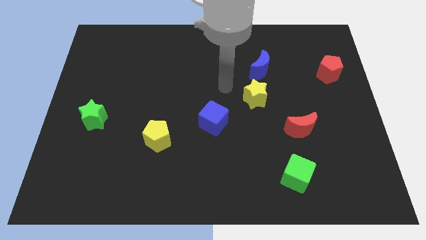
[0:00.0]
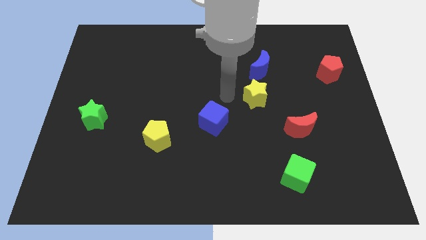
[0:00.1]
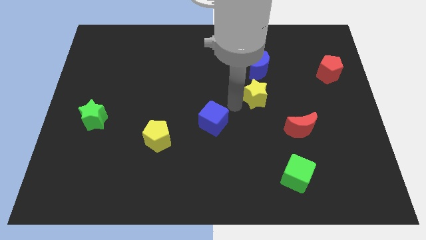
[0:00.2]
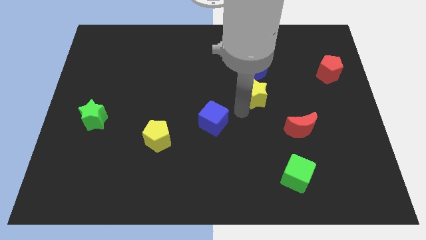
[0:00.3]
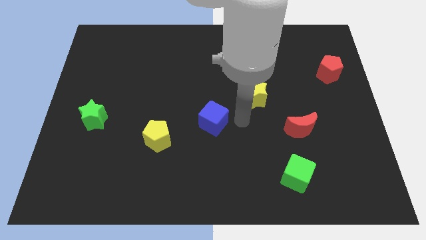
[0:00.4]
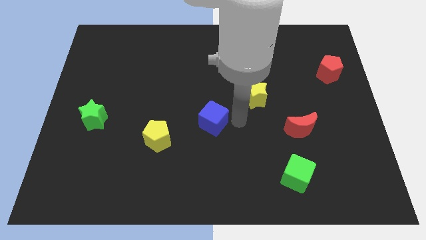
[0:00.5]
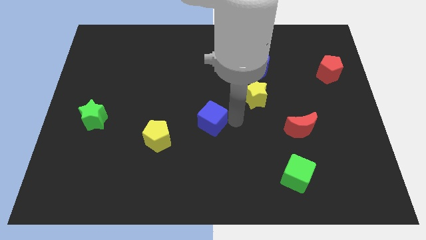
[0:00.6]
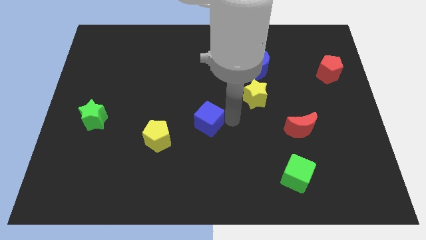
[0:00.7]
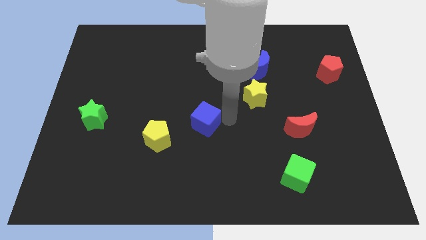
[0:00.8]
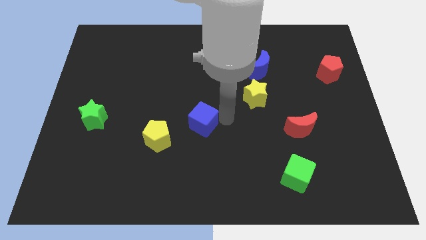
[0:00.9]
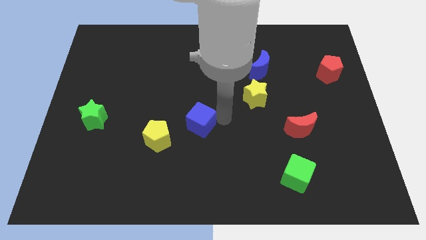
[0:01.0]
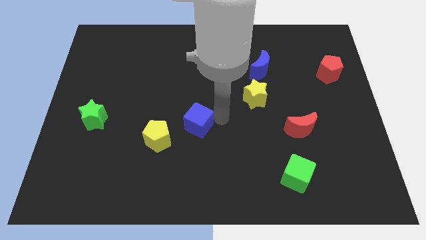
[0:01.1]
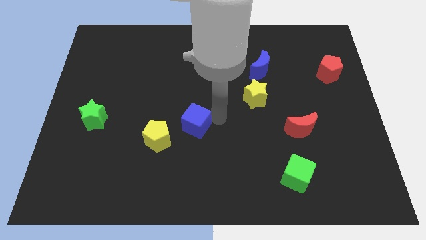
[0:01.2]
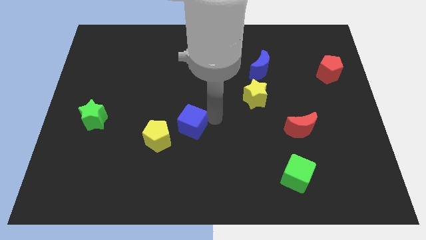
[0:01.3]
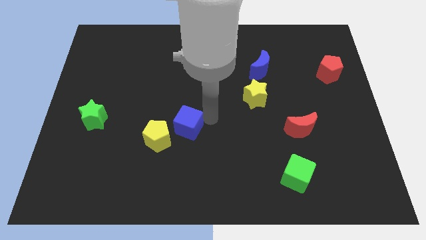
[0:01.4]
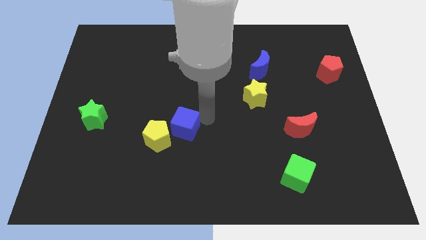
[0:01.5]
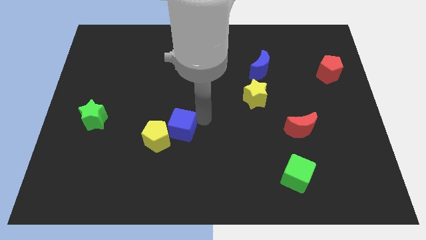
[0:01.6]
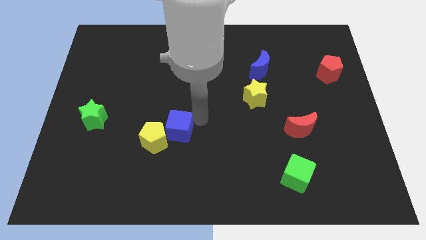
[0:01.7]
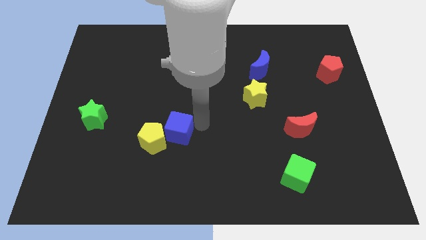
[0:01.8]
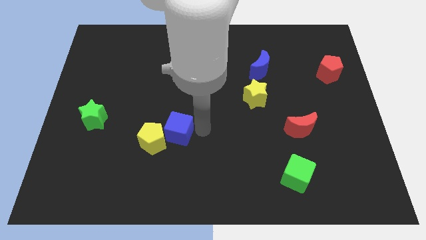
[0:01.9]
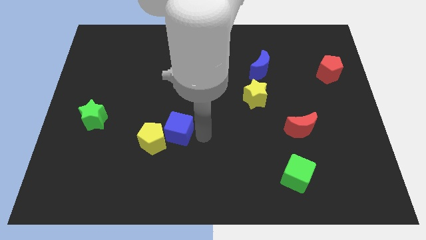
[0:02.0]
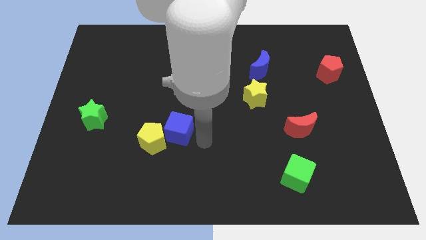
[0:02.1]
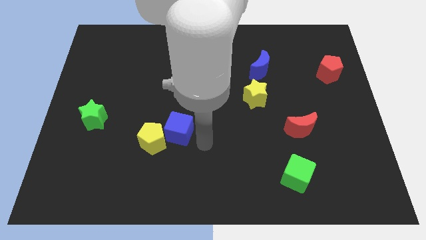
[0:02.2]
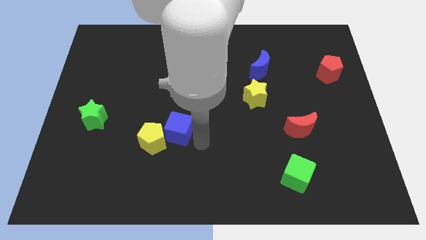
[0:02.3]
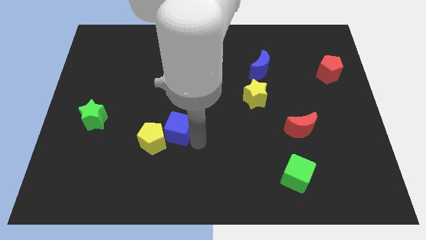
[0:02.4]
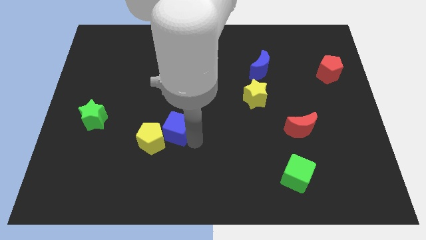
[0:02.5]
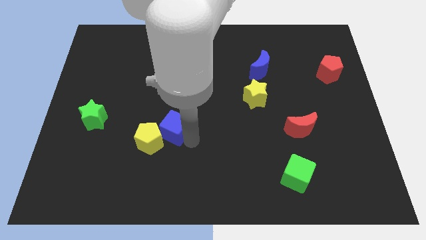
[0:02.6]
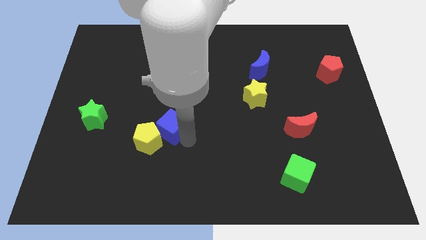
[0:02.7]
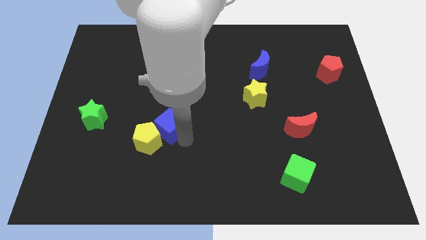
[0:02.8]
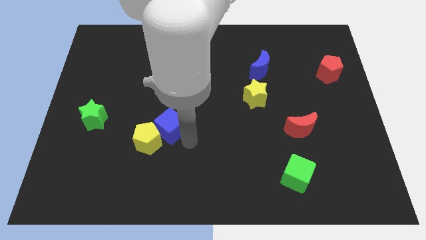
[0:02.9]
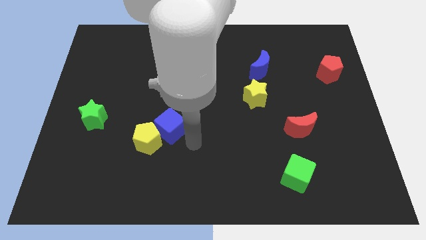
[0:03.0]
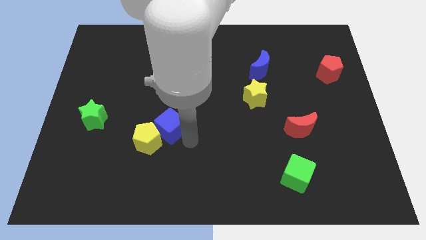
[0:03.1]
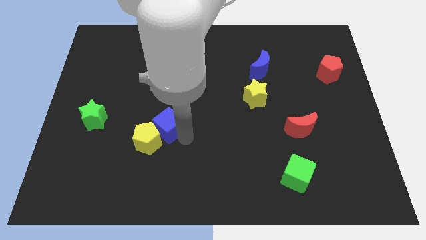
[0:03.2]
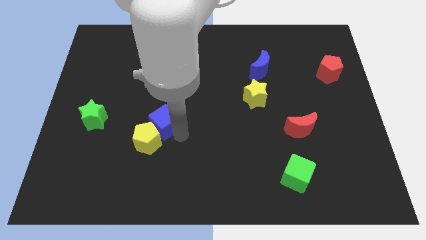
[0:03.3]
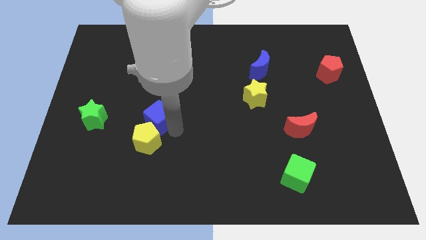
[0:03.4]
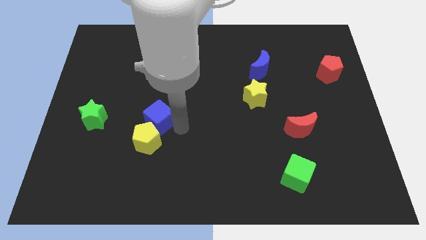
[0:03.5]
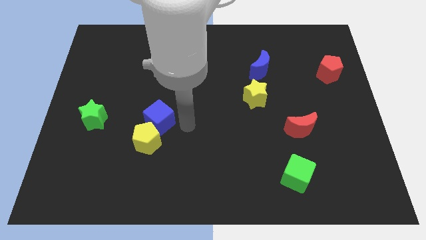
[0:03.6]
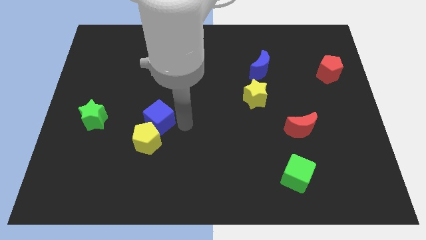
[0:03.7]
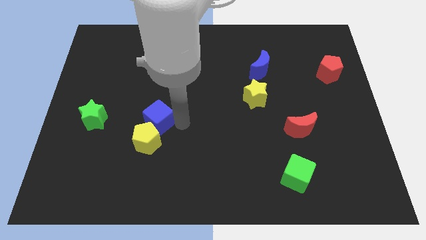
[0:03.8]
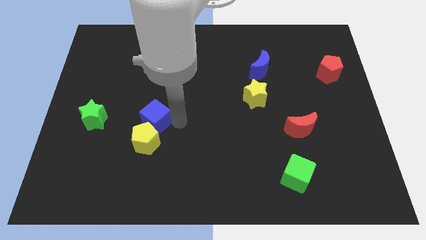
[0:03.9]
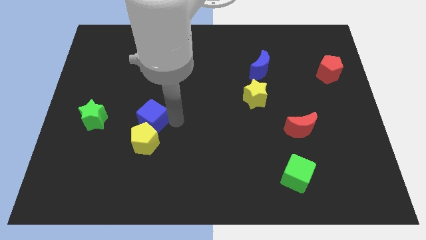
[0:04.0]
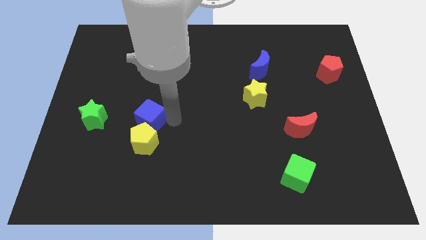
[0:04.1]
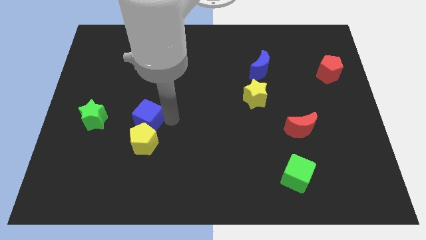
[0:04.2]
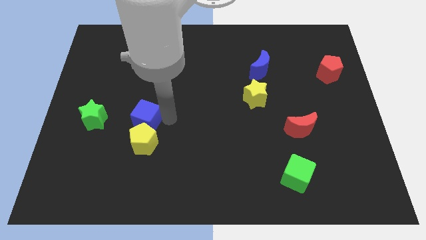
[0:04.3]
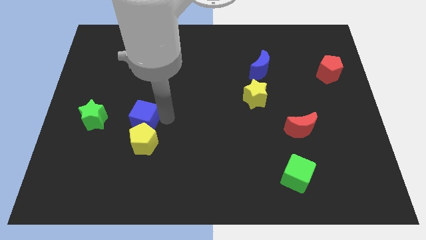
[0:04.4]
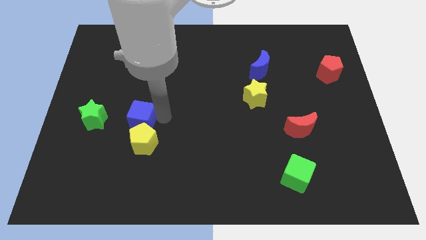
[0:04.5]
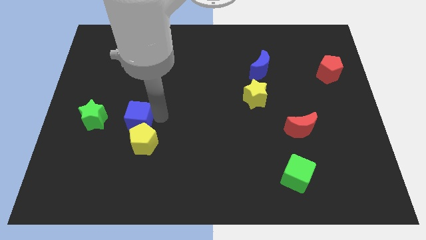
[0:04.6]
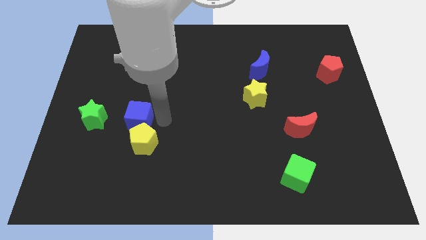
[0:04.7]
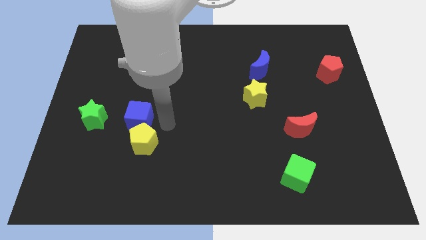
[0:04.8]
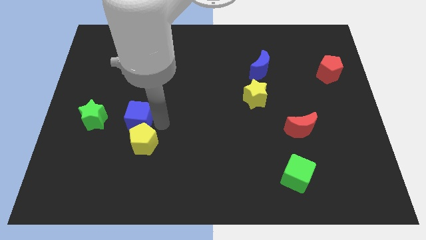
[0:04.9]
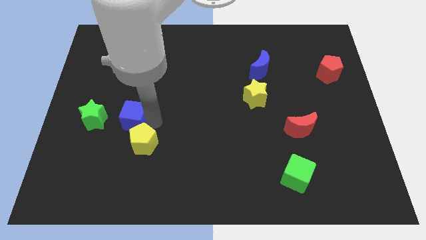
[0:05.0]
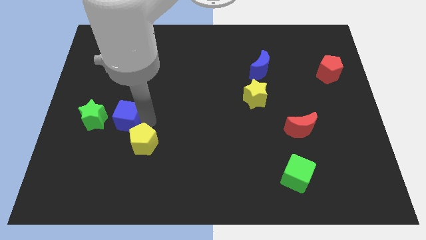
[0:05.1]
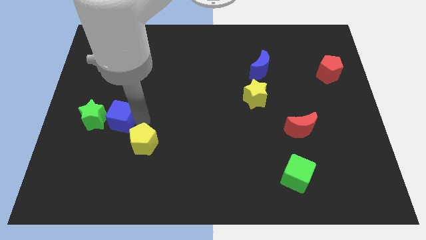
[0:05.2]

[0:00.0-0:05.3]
push the blue cube close to the green star
